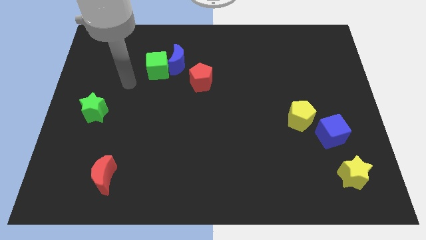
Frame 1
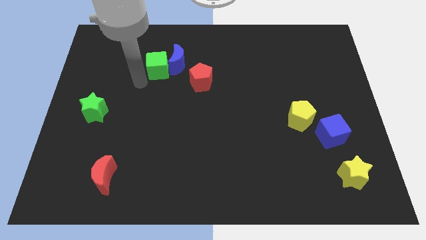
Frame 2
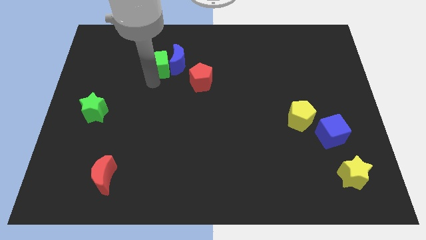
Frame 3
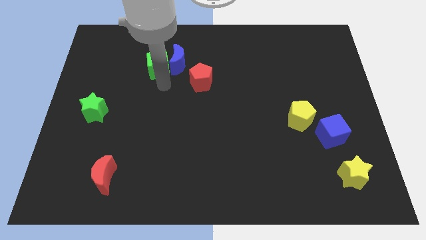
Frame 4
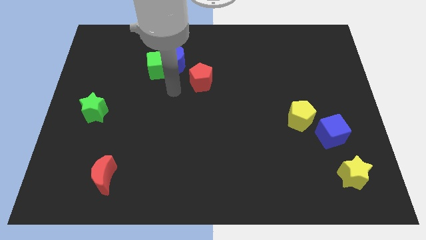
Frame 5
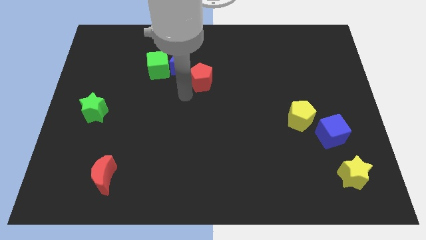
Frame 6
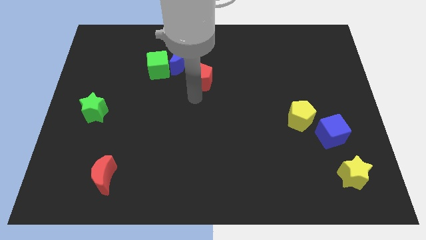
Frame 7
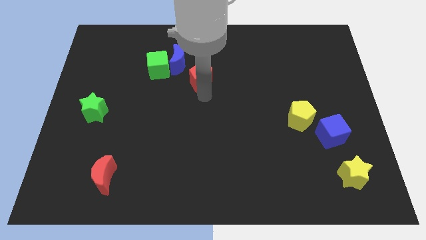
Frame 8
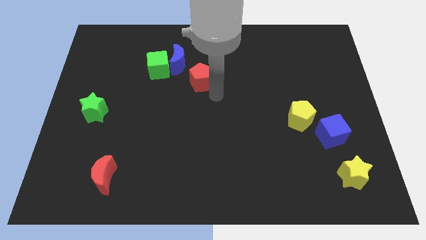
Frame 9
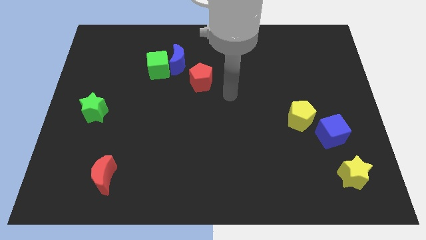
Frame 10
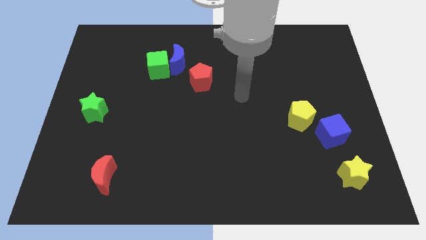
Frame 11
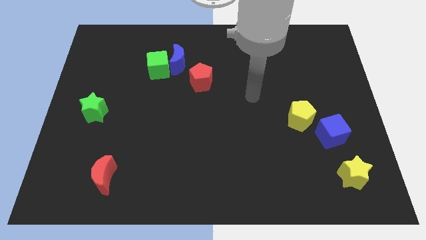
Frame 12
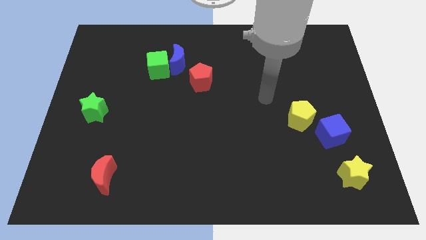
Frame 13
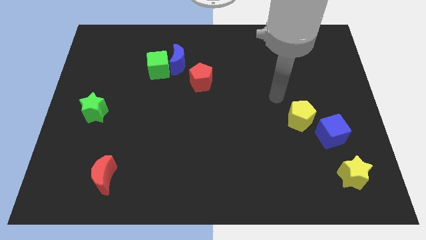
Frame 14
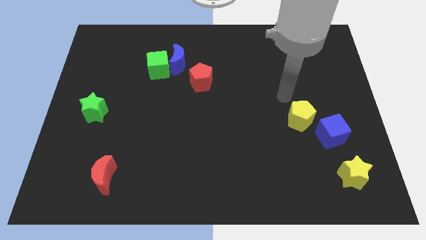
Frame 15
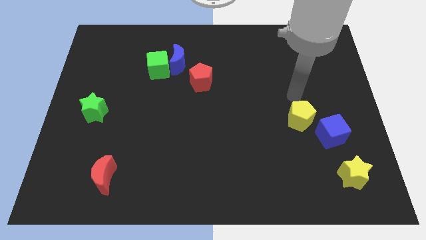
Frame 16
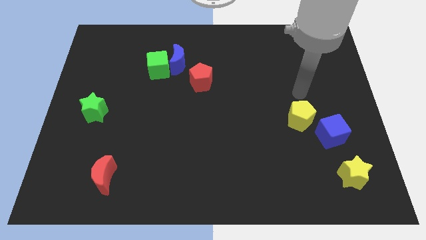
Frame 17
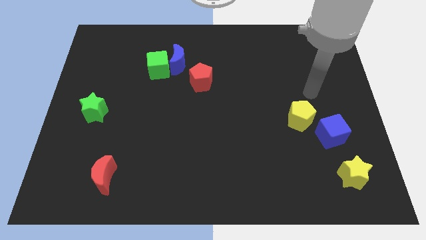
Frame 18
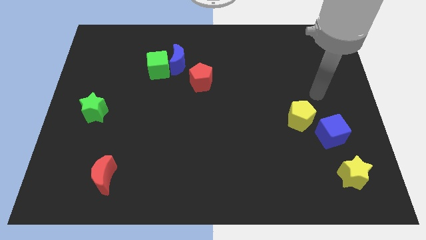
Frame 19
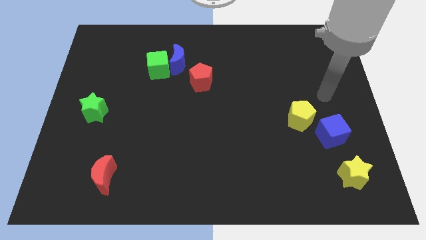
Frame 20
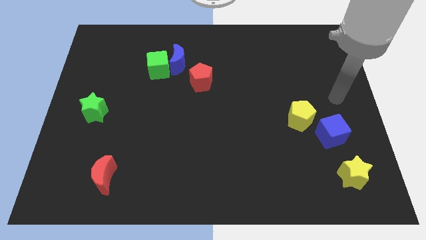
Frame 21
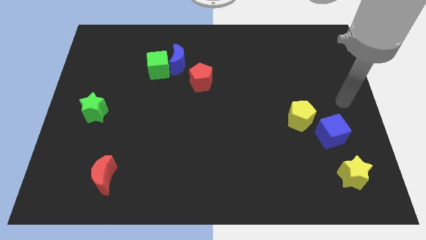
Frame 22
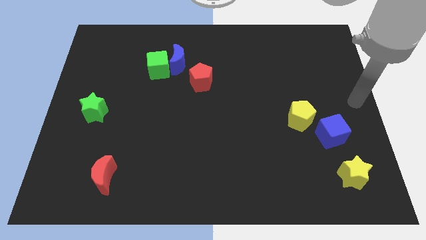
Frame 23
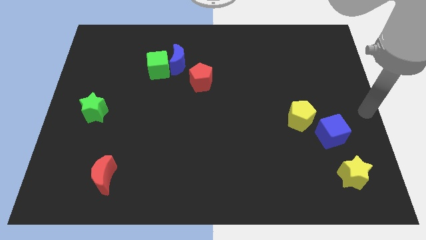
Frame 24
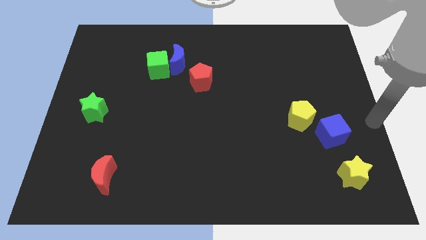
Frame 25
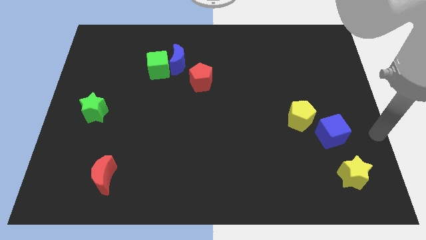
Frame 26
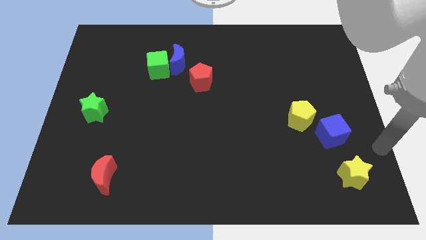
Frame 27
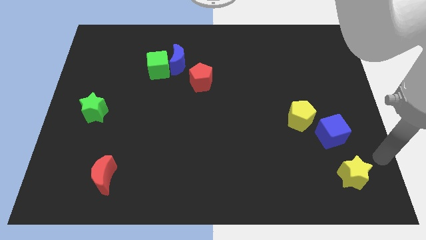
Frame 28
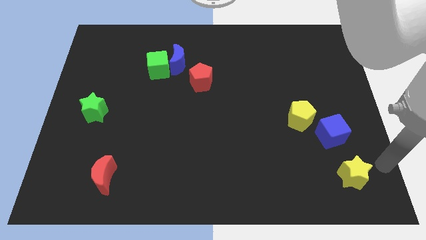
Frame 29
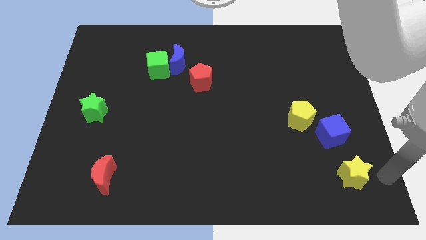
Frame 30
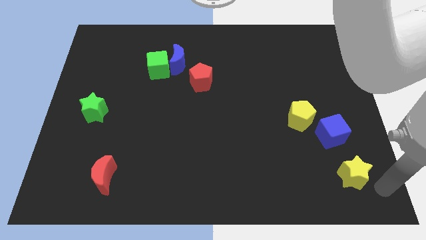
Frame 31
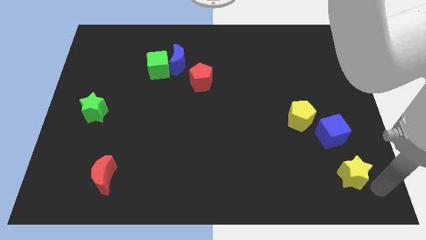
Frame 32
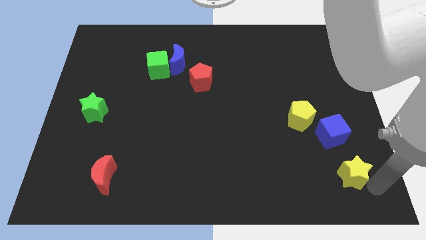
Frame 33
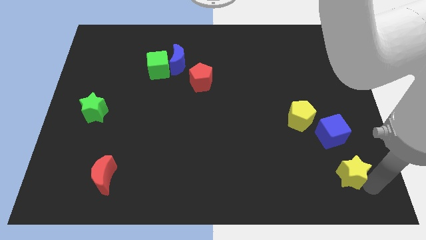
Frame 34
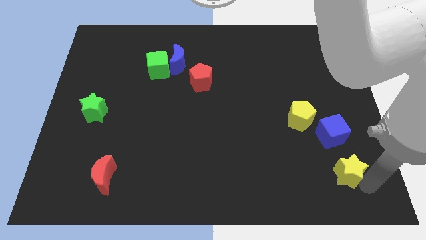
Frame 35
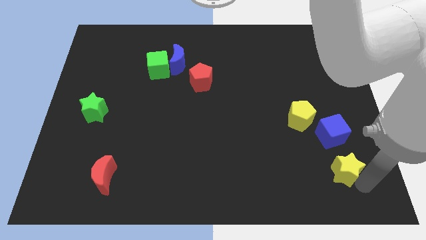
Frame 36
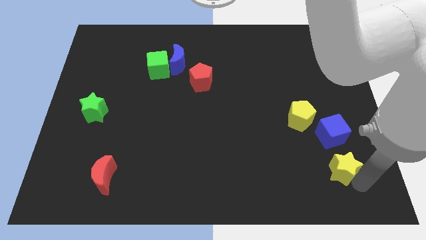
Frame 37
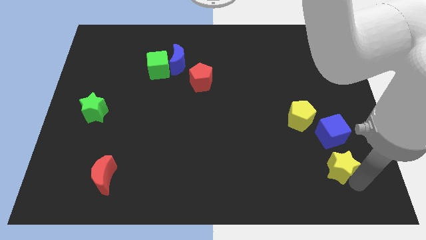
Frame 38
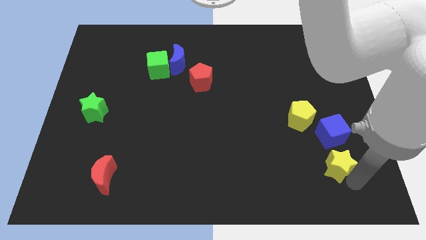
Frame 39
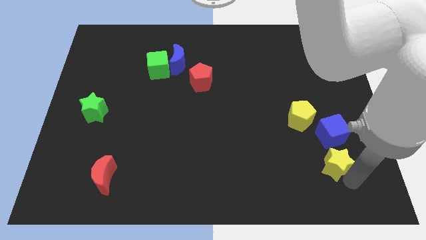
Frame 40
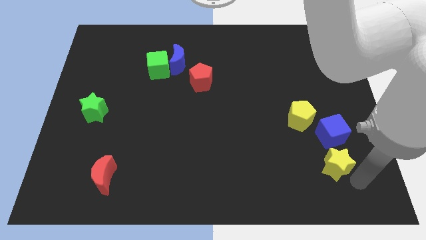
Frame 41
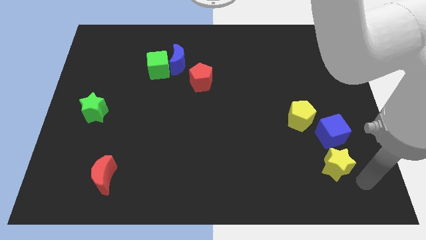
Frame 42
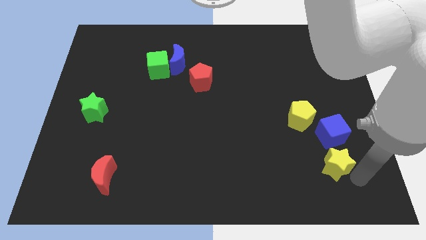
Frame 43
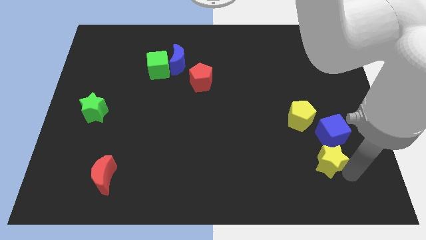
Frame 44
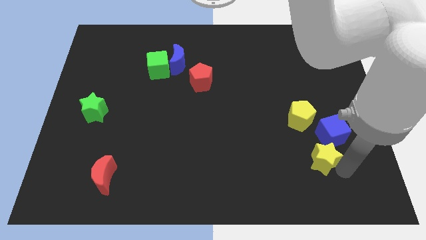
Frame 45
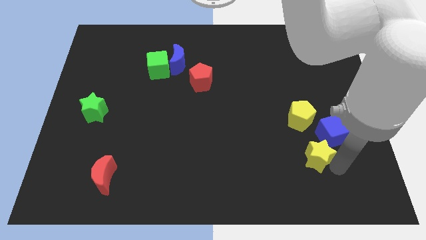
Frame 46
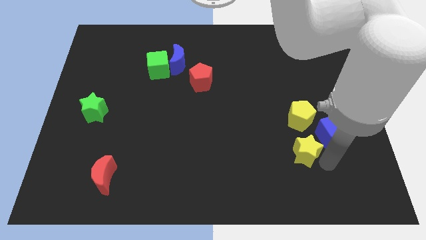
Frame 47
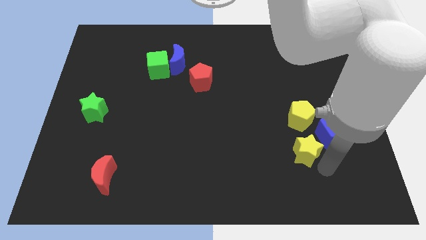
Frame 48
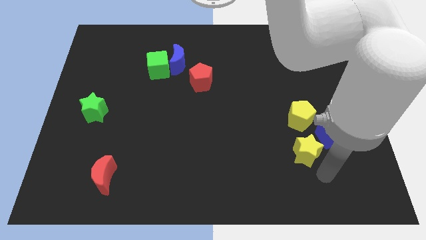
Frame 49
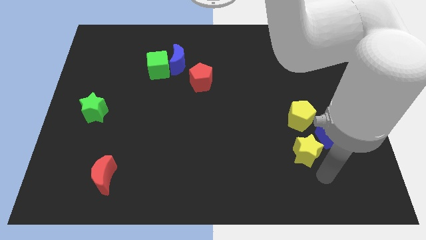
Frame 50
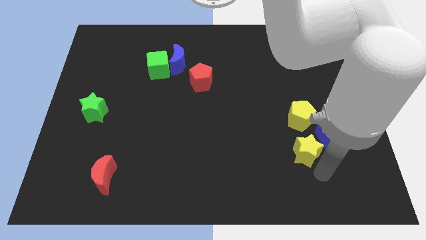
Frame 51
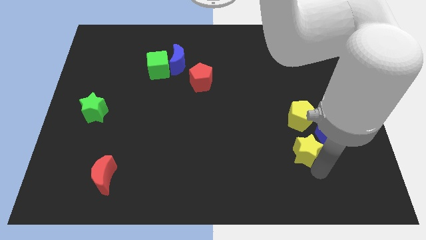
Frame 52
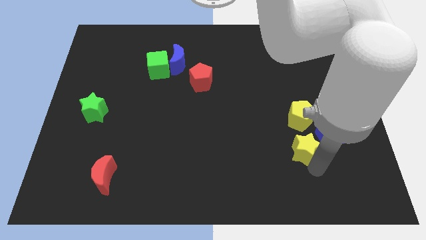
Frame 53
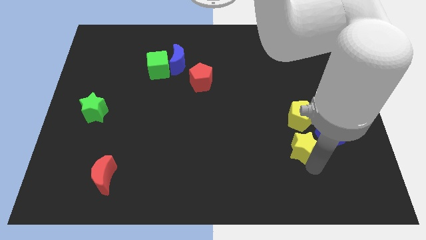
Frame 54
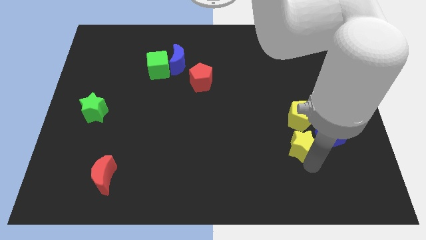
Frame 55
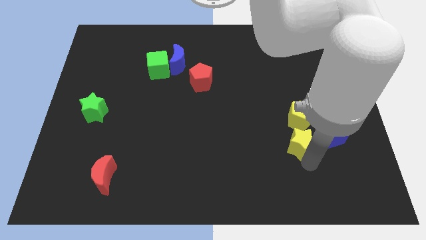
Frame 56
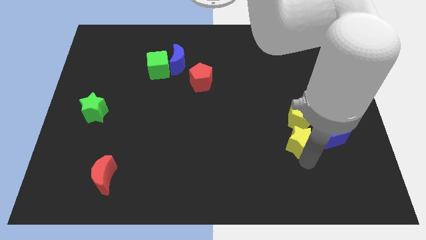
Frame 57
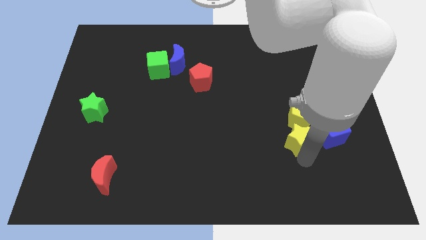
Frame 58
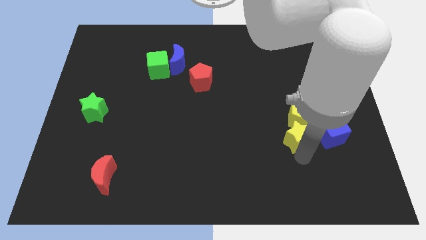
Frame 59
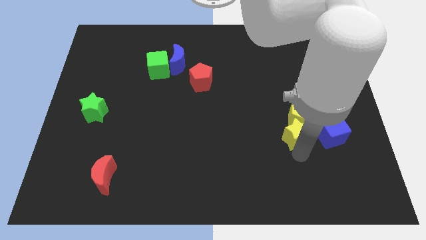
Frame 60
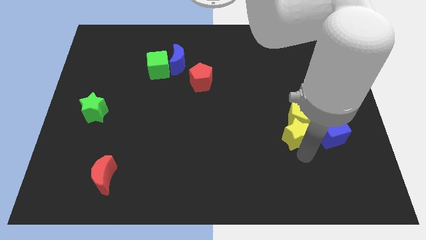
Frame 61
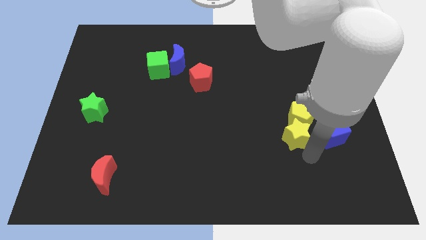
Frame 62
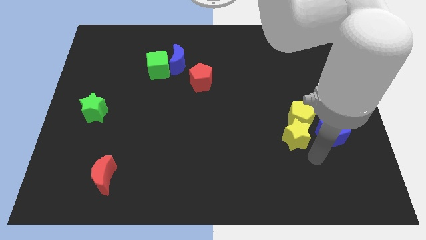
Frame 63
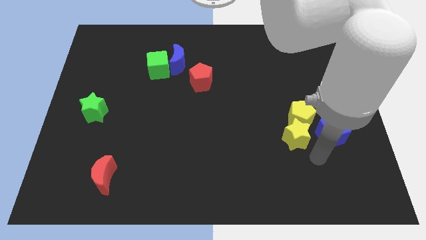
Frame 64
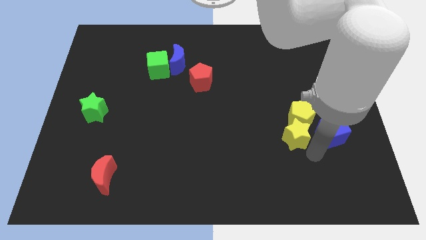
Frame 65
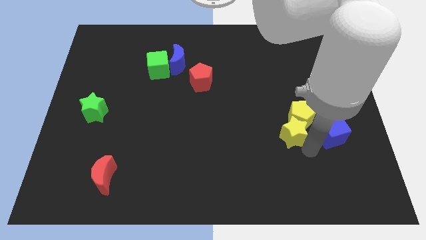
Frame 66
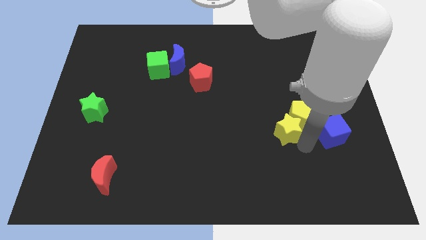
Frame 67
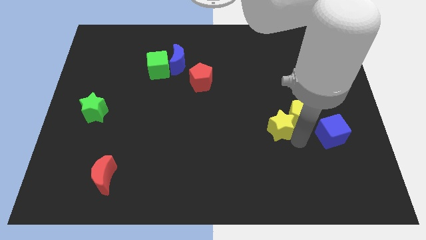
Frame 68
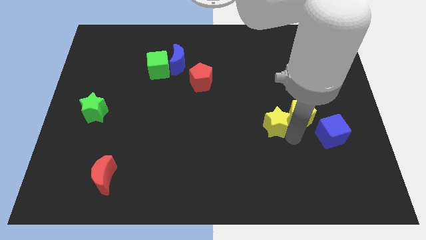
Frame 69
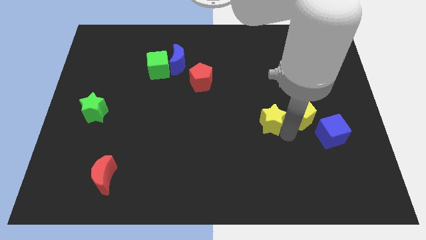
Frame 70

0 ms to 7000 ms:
push the yellow star diagonally up and to the left

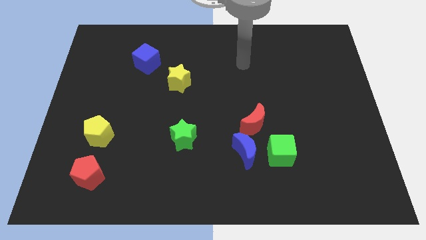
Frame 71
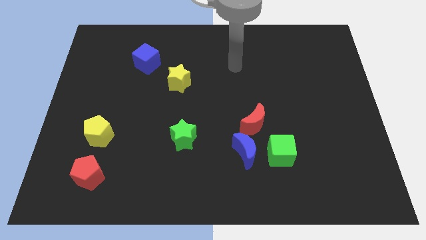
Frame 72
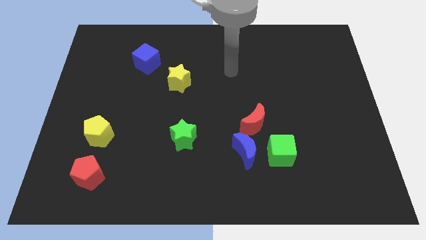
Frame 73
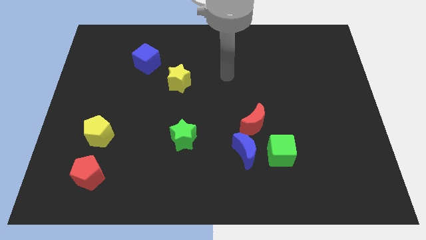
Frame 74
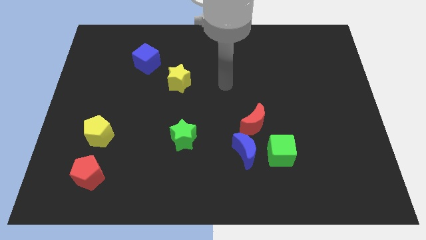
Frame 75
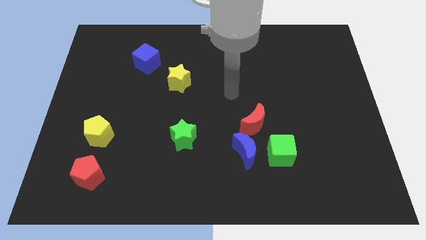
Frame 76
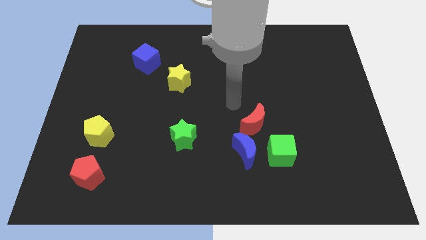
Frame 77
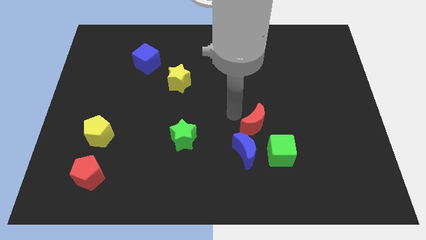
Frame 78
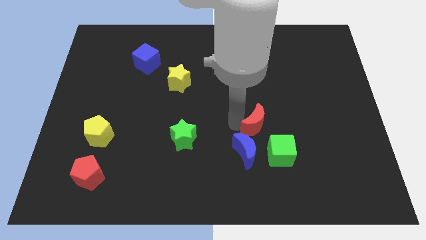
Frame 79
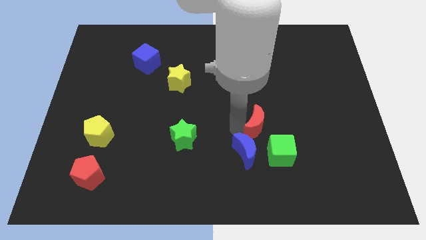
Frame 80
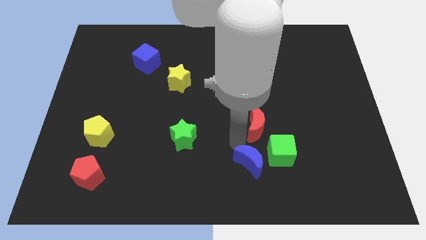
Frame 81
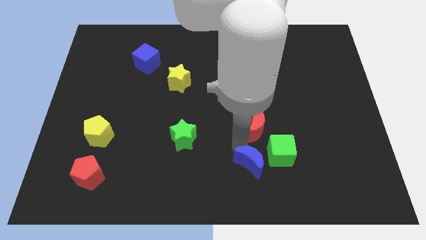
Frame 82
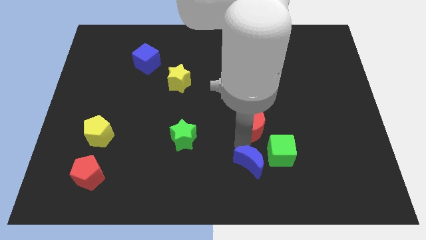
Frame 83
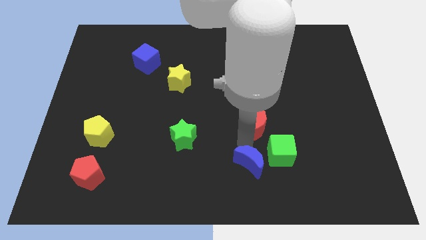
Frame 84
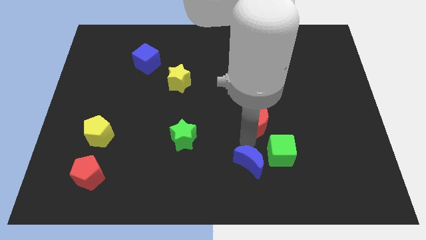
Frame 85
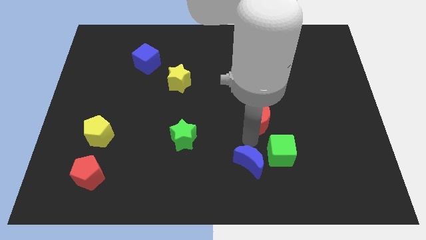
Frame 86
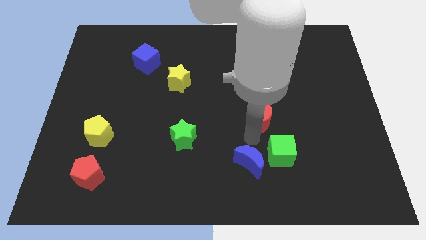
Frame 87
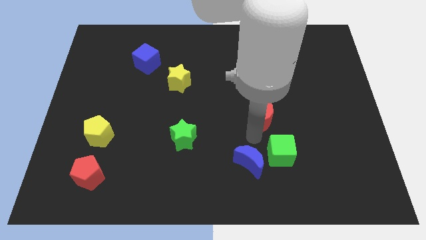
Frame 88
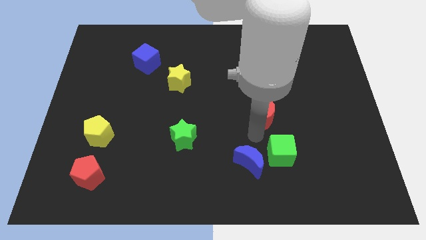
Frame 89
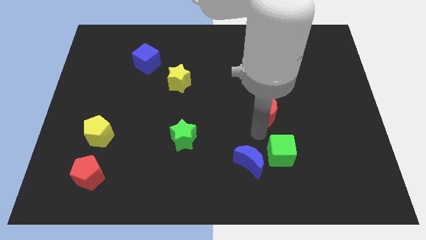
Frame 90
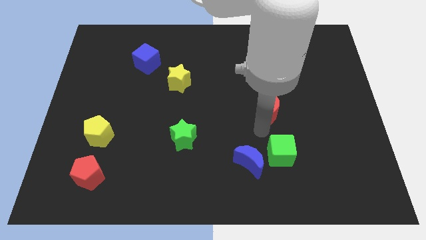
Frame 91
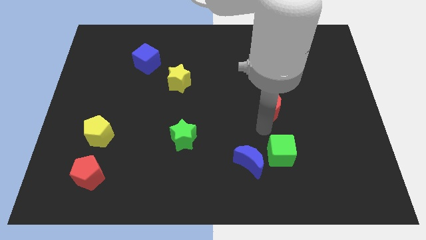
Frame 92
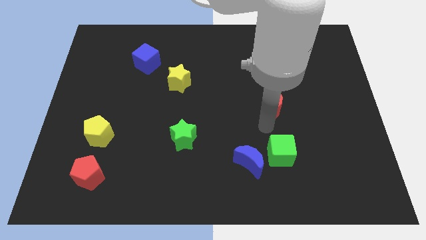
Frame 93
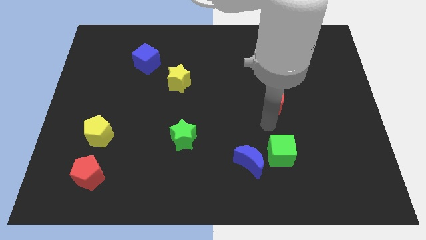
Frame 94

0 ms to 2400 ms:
slightly slide the red moon up and then to the right
